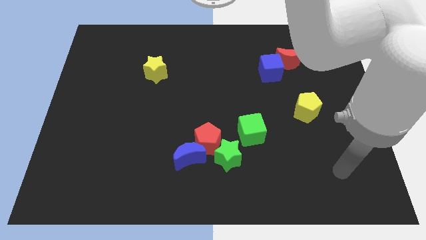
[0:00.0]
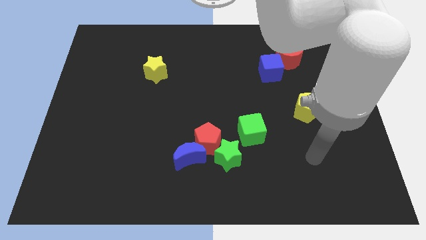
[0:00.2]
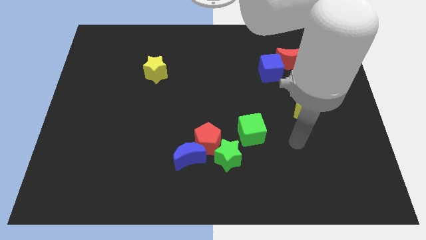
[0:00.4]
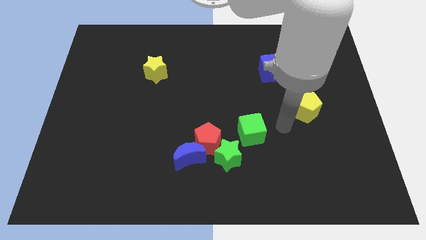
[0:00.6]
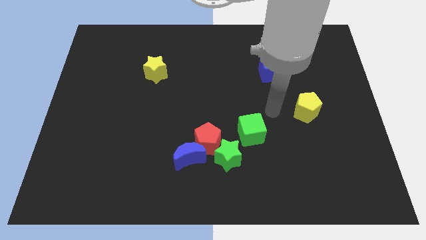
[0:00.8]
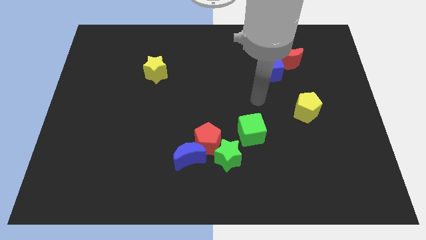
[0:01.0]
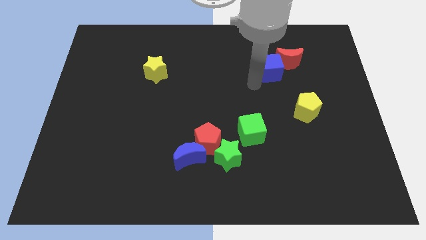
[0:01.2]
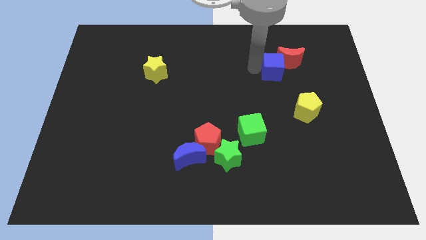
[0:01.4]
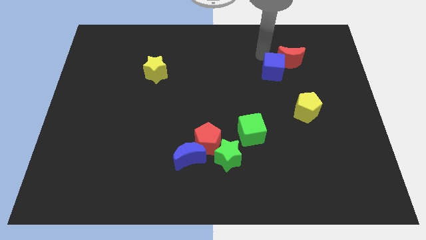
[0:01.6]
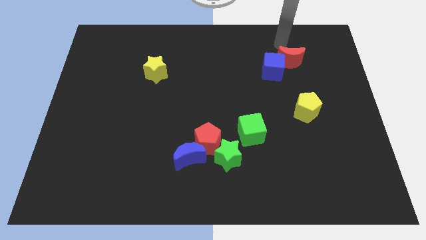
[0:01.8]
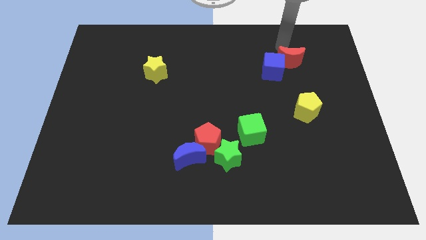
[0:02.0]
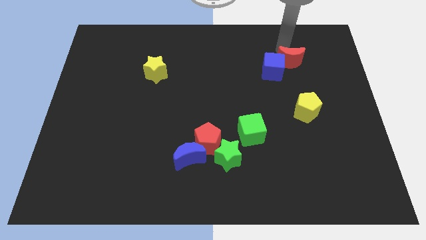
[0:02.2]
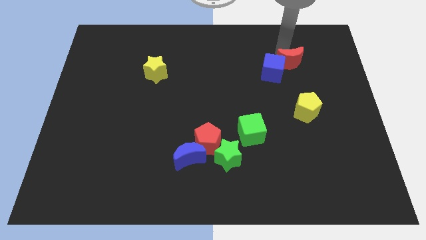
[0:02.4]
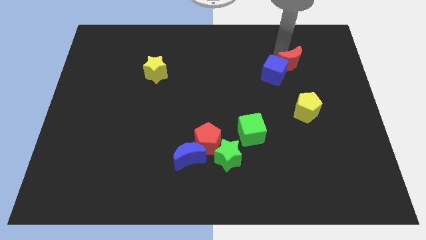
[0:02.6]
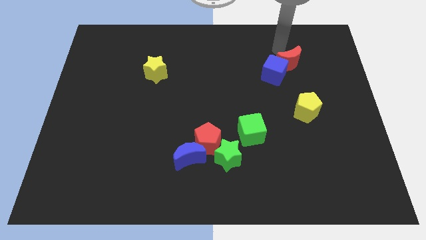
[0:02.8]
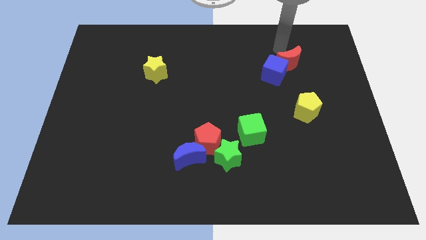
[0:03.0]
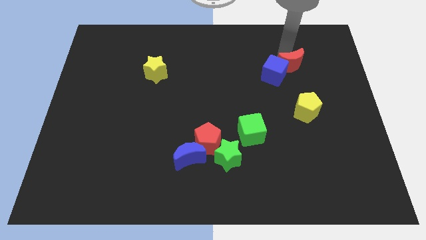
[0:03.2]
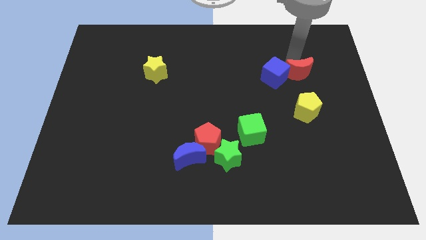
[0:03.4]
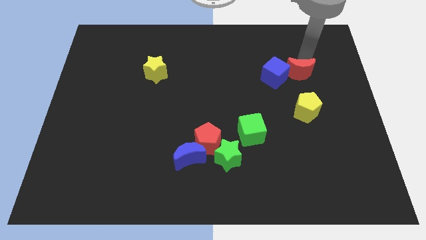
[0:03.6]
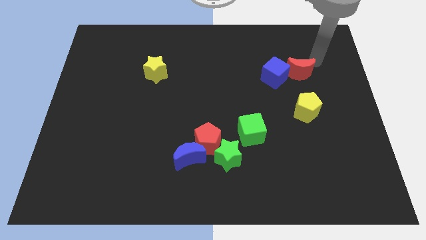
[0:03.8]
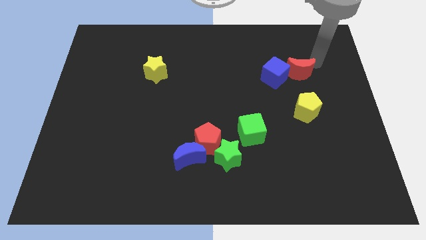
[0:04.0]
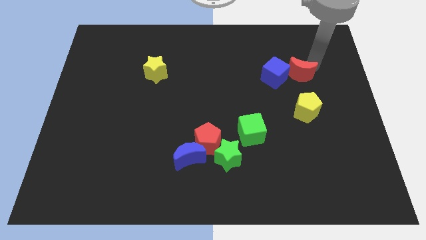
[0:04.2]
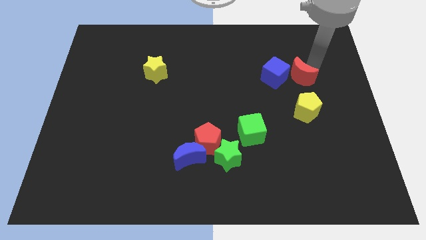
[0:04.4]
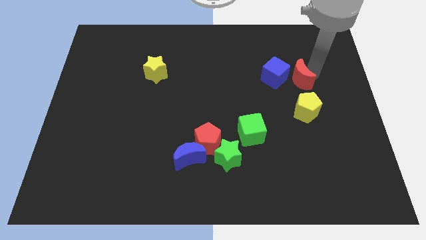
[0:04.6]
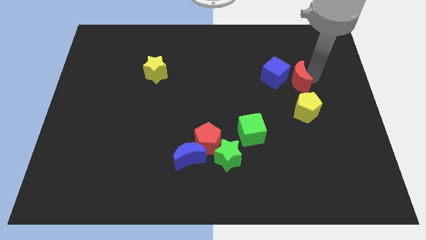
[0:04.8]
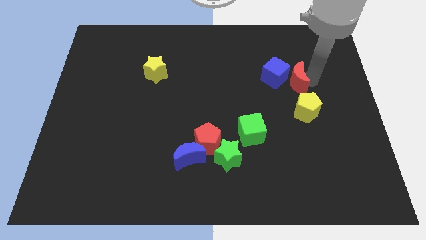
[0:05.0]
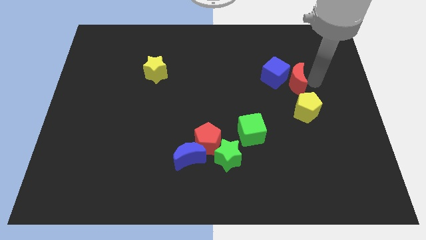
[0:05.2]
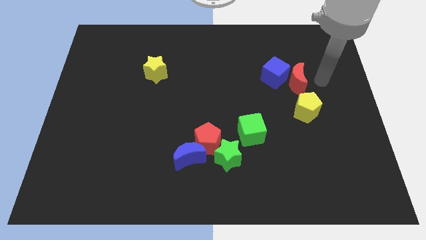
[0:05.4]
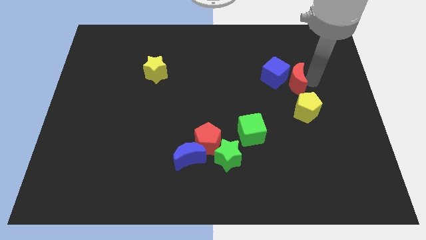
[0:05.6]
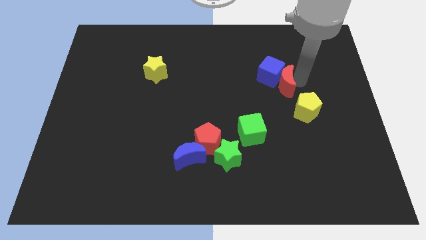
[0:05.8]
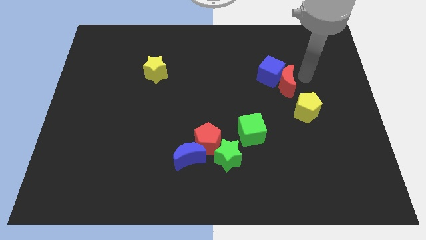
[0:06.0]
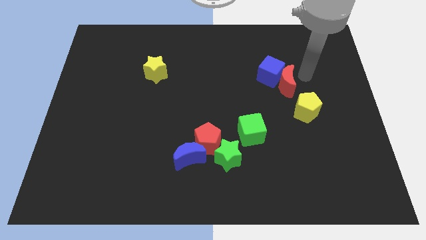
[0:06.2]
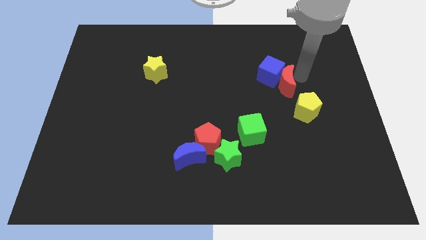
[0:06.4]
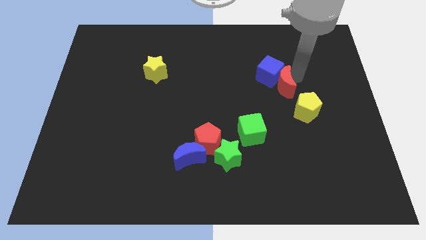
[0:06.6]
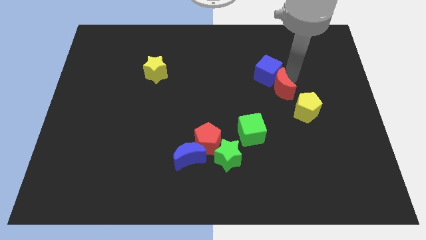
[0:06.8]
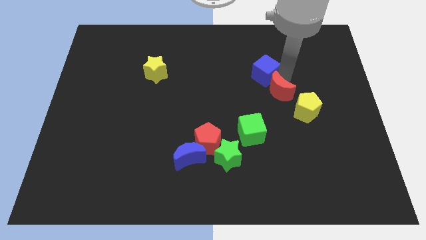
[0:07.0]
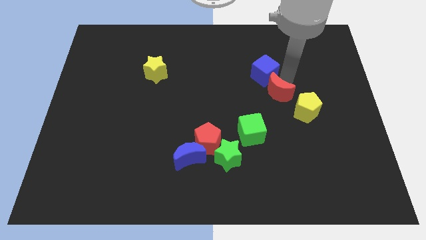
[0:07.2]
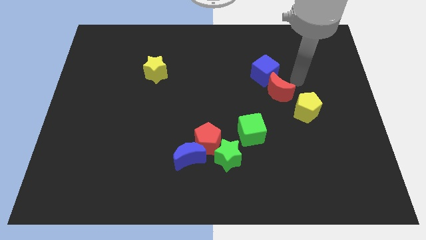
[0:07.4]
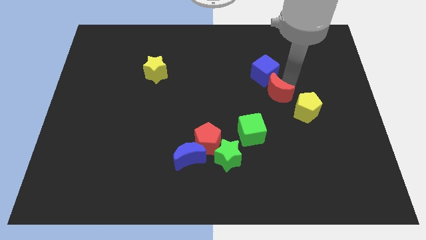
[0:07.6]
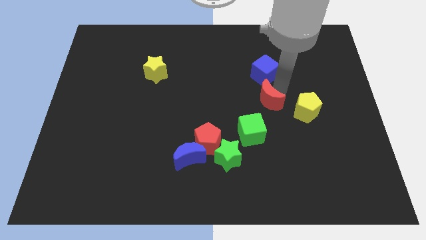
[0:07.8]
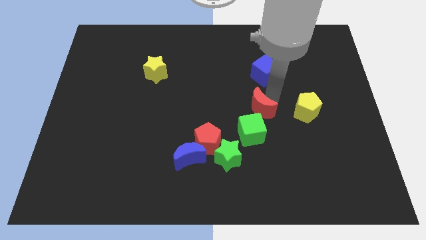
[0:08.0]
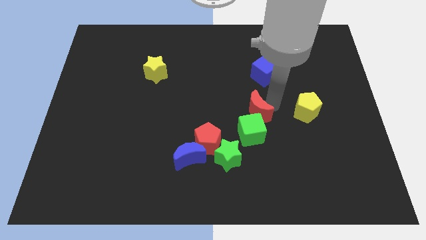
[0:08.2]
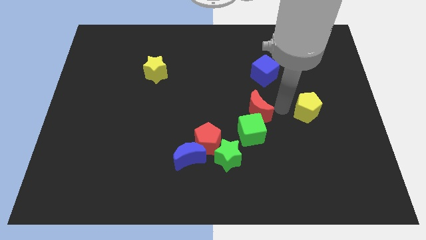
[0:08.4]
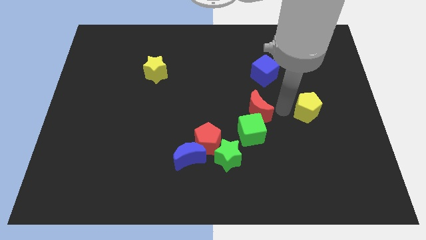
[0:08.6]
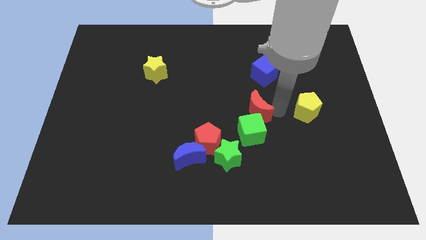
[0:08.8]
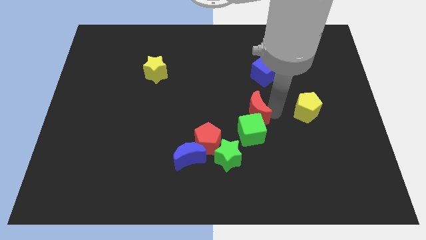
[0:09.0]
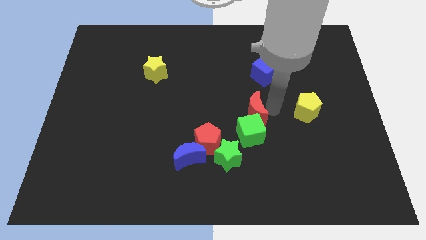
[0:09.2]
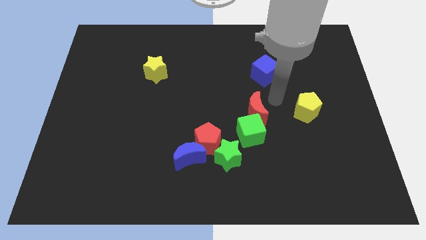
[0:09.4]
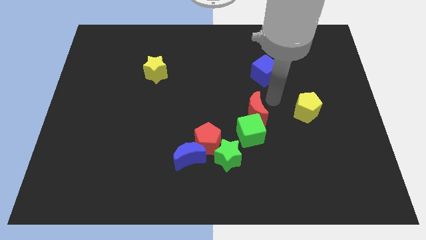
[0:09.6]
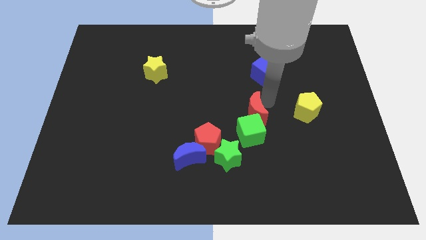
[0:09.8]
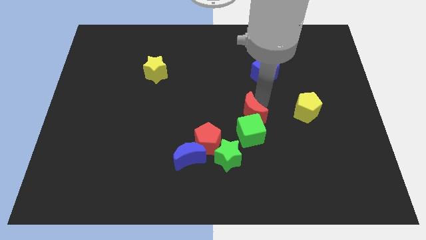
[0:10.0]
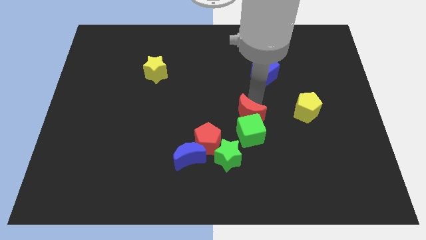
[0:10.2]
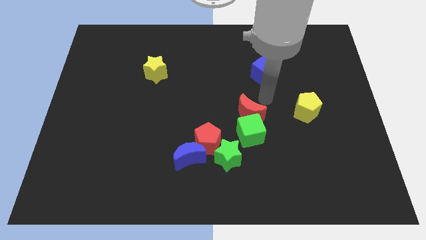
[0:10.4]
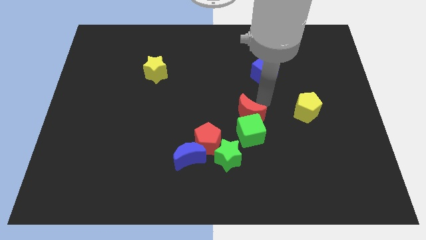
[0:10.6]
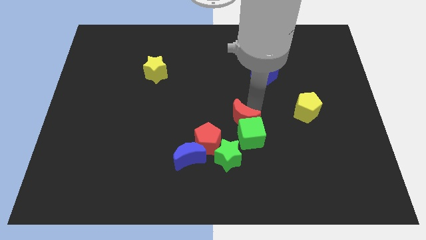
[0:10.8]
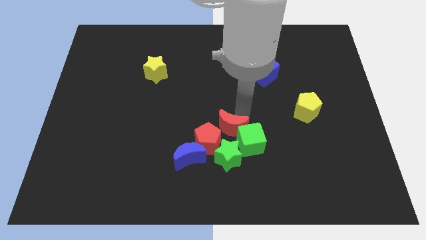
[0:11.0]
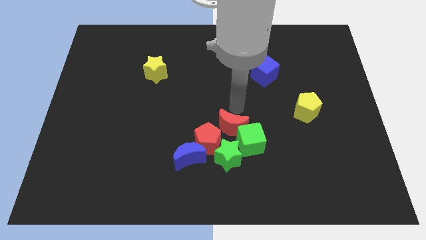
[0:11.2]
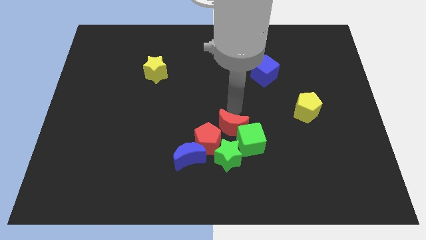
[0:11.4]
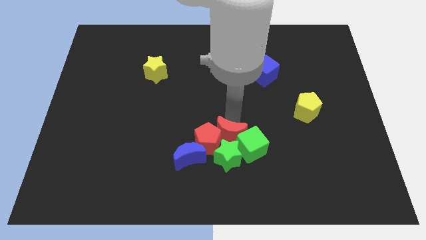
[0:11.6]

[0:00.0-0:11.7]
put the red moon to the green star

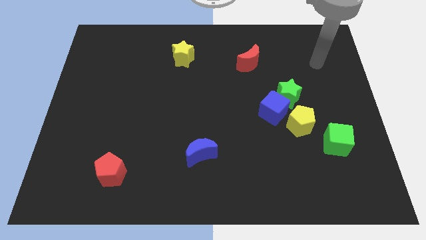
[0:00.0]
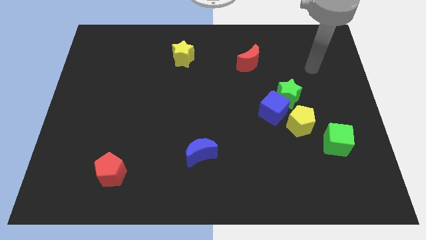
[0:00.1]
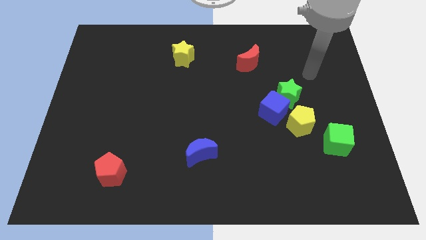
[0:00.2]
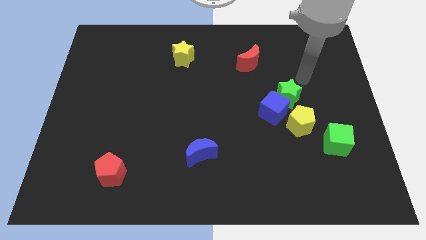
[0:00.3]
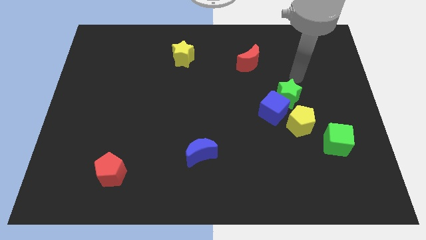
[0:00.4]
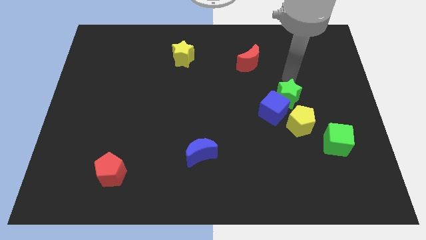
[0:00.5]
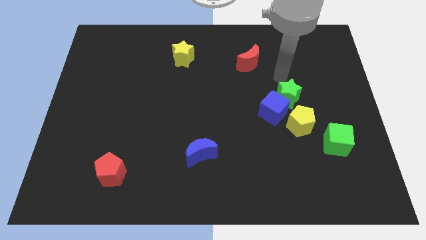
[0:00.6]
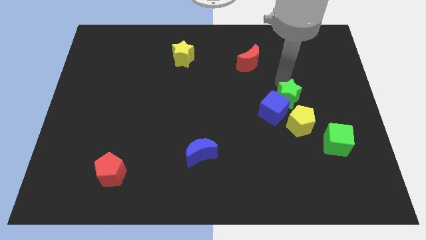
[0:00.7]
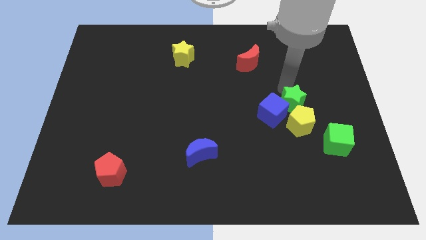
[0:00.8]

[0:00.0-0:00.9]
push the green star next to the yellow pentagon

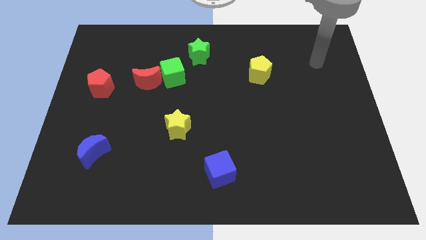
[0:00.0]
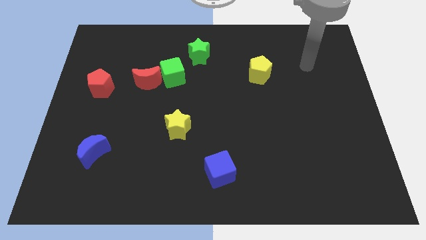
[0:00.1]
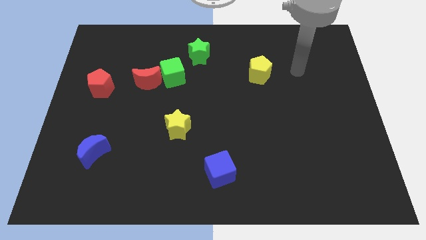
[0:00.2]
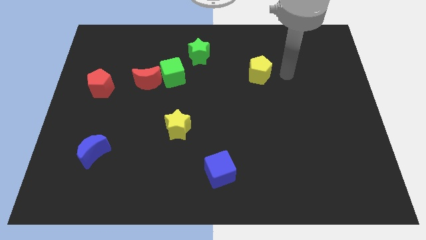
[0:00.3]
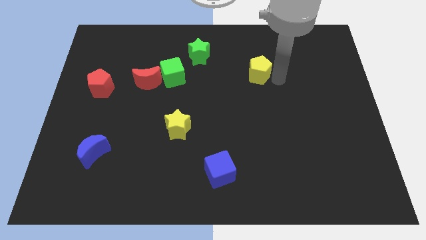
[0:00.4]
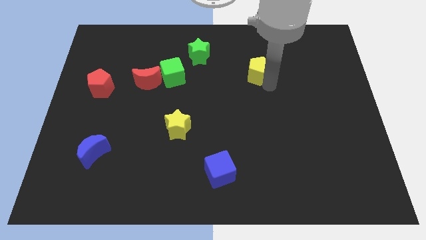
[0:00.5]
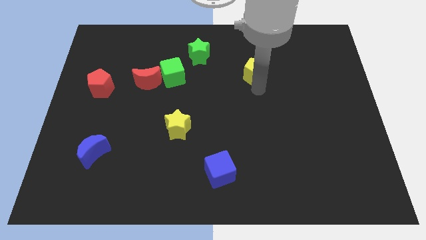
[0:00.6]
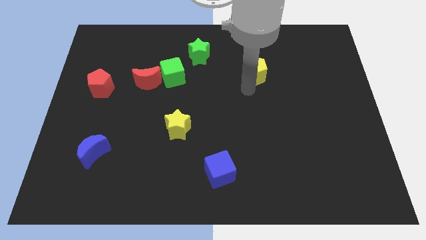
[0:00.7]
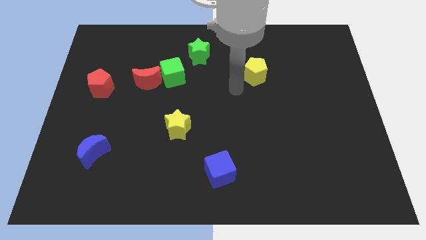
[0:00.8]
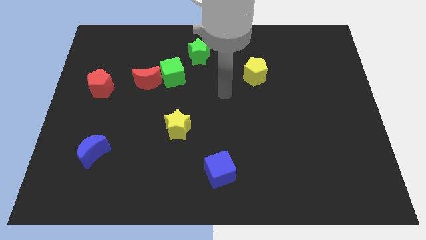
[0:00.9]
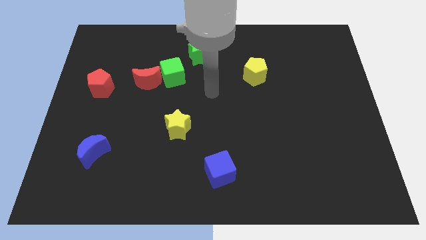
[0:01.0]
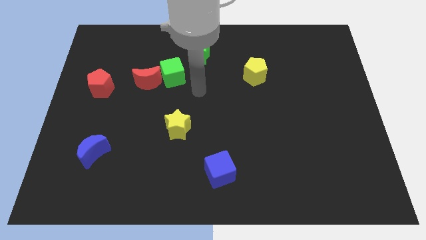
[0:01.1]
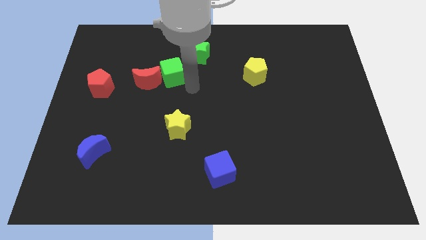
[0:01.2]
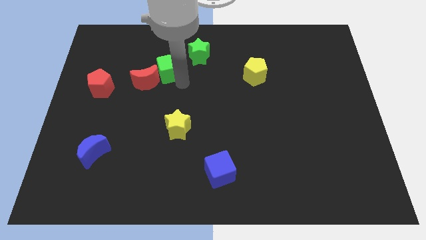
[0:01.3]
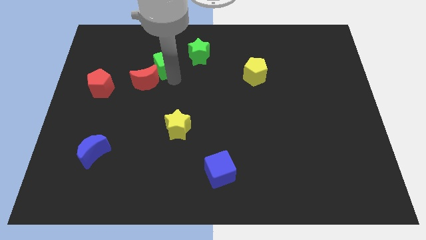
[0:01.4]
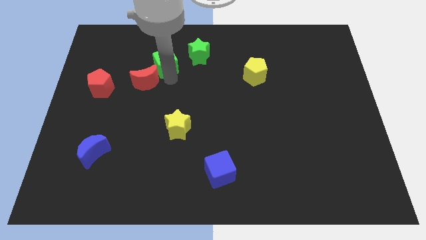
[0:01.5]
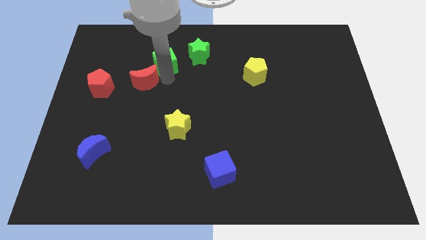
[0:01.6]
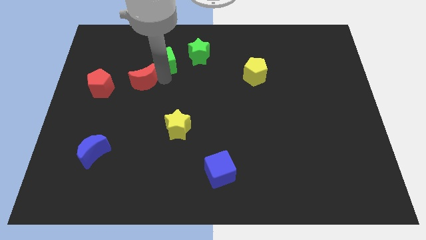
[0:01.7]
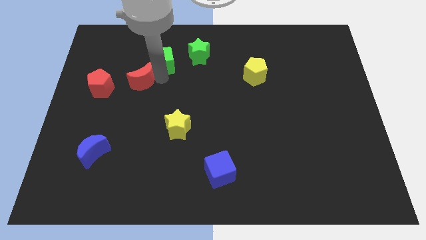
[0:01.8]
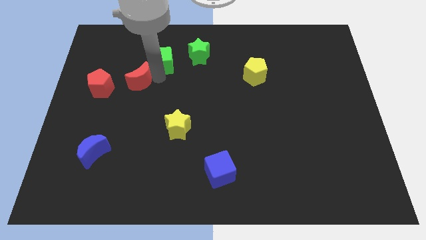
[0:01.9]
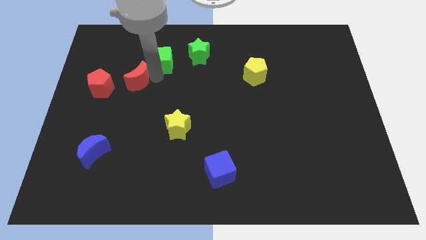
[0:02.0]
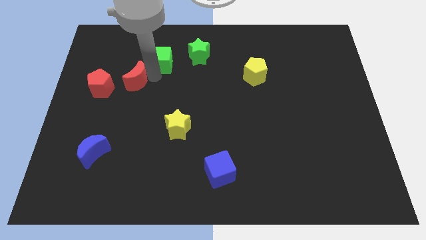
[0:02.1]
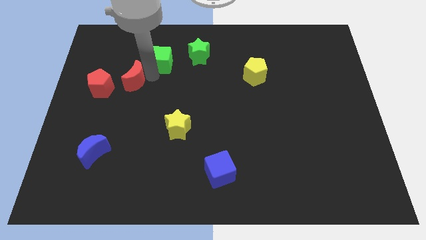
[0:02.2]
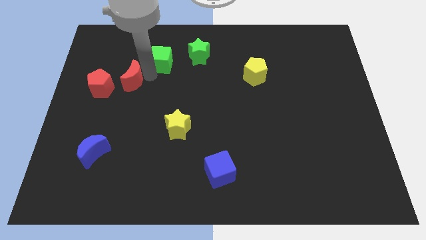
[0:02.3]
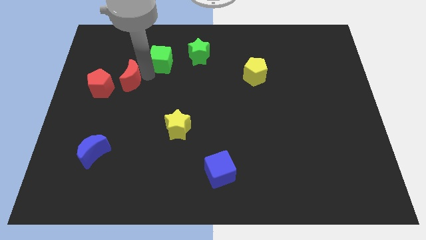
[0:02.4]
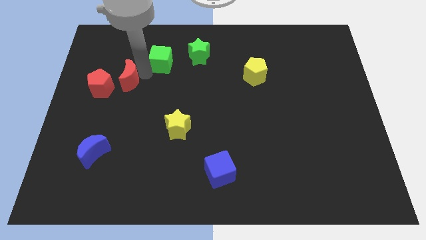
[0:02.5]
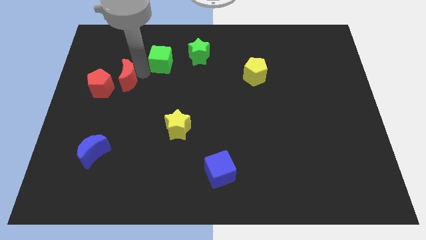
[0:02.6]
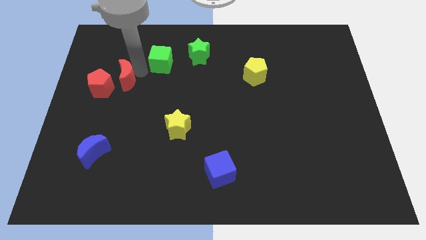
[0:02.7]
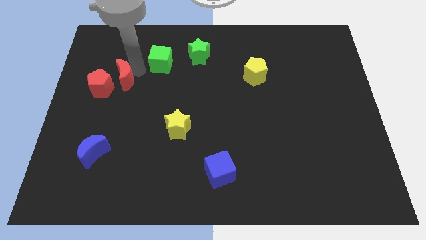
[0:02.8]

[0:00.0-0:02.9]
push the red moon close to the red pentagon
